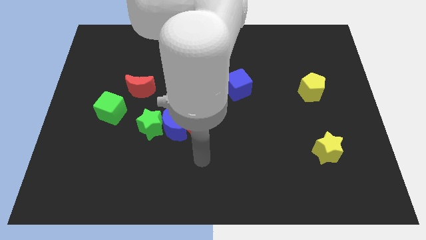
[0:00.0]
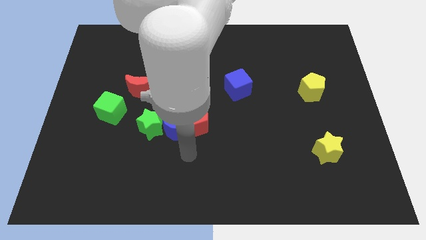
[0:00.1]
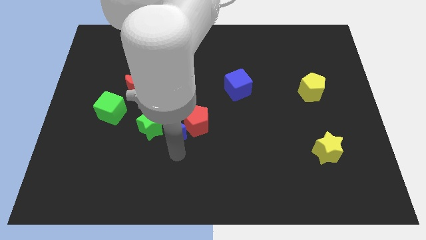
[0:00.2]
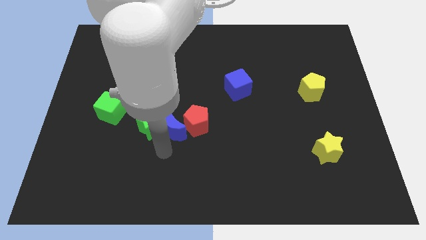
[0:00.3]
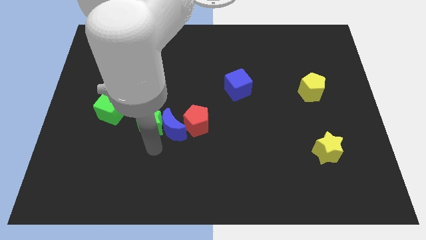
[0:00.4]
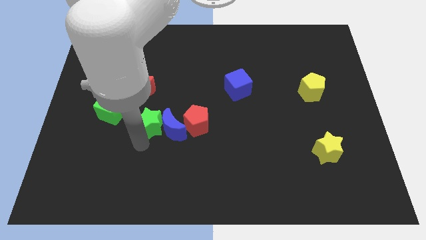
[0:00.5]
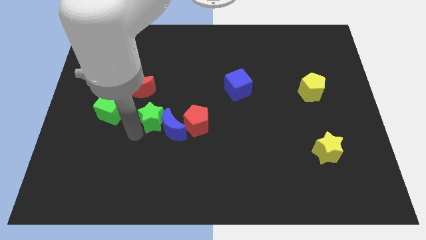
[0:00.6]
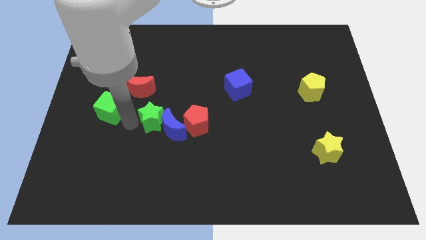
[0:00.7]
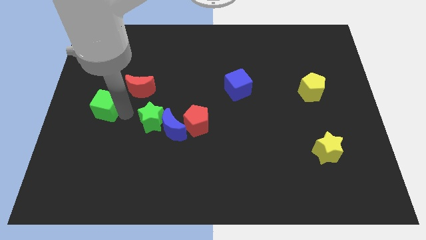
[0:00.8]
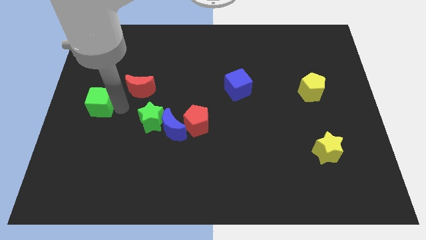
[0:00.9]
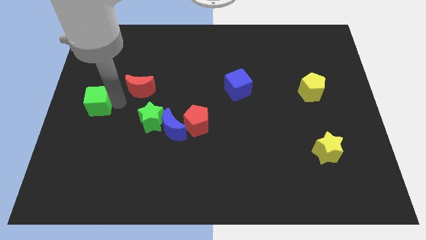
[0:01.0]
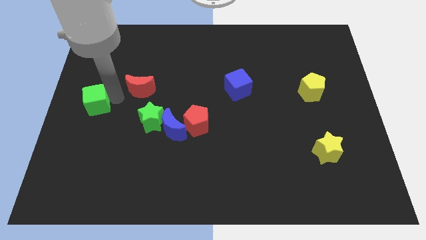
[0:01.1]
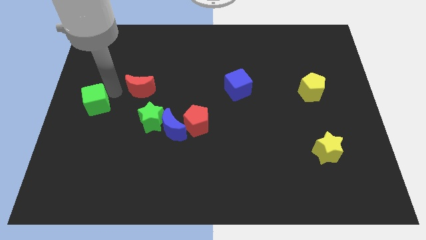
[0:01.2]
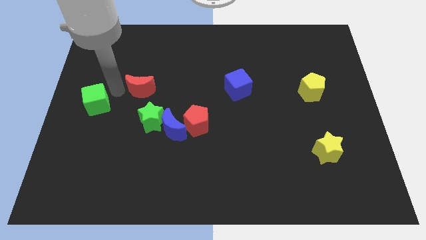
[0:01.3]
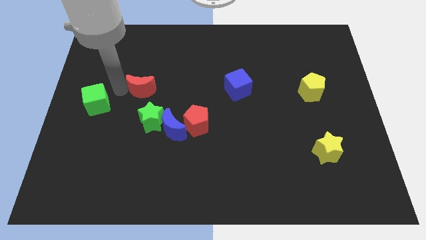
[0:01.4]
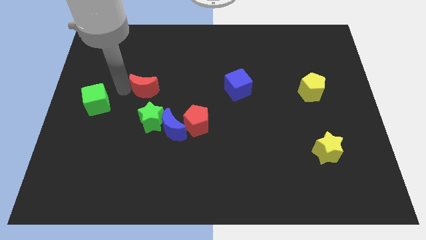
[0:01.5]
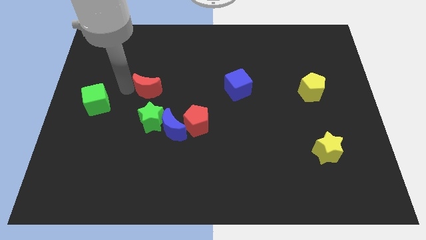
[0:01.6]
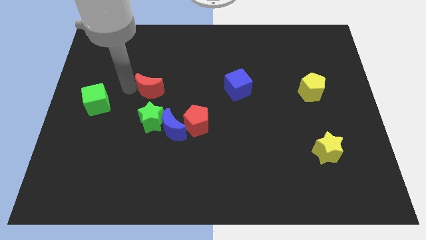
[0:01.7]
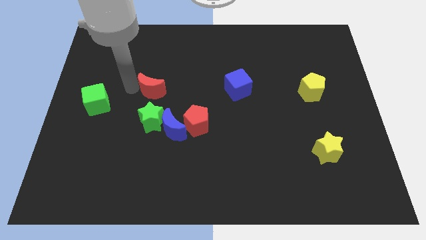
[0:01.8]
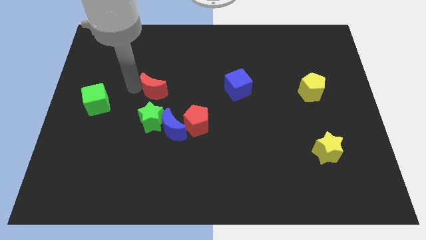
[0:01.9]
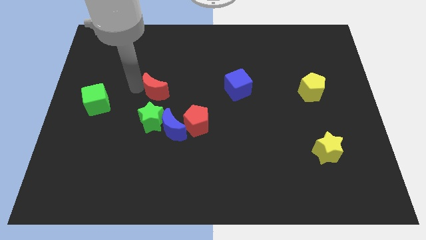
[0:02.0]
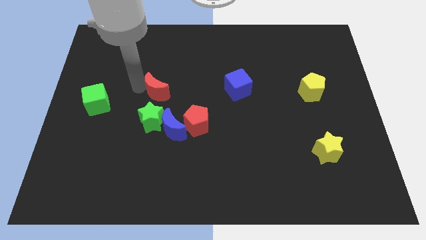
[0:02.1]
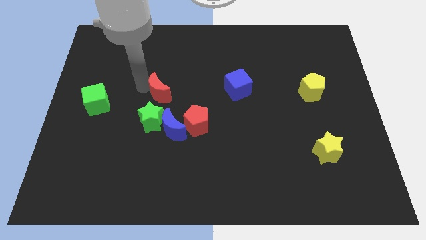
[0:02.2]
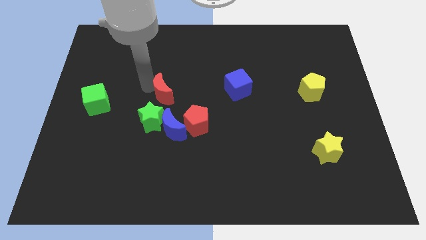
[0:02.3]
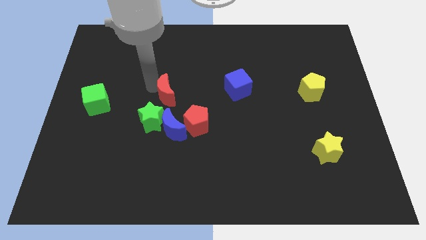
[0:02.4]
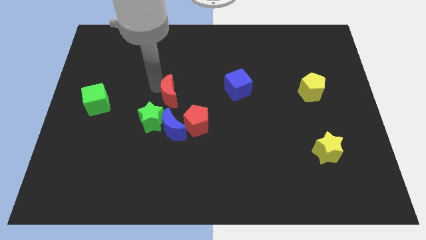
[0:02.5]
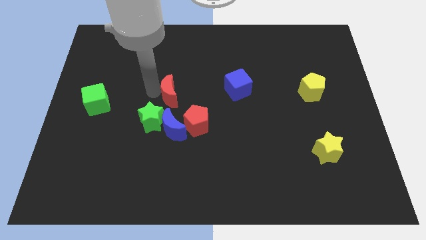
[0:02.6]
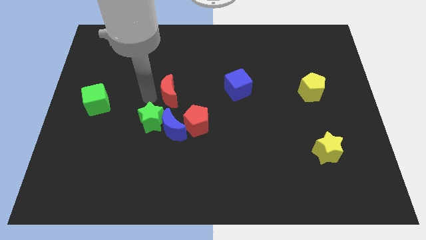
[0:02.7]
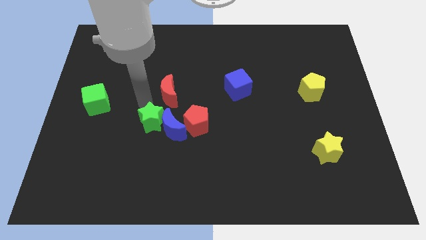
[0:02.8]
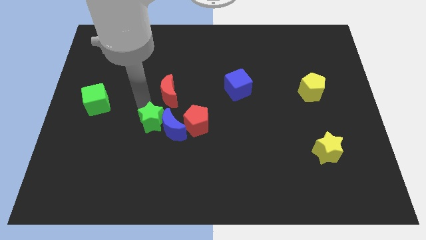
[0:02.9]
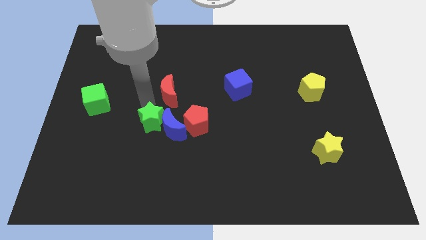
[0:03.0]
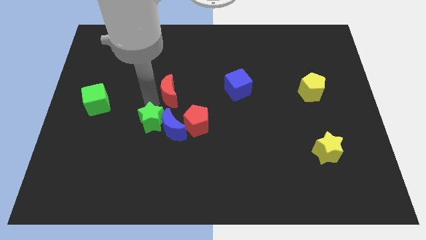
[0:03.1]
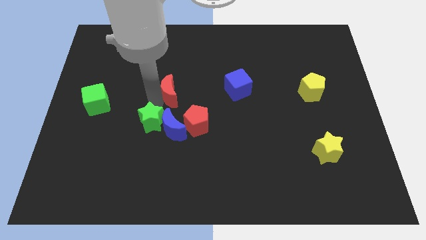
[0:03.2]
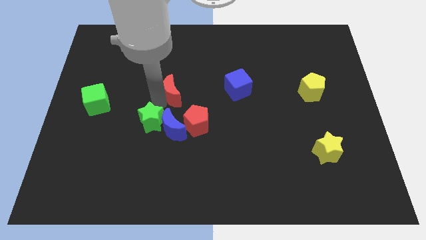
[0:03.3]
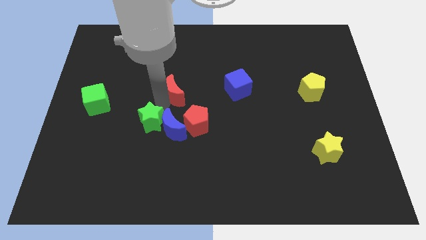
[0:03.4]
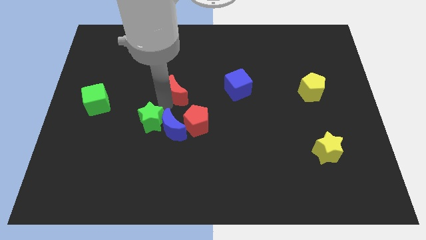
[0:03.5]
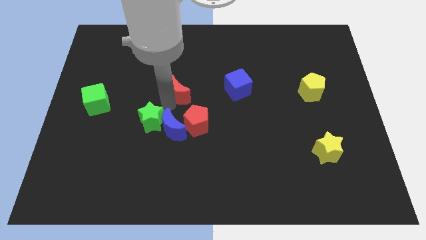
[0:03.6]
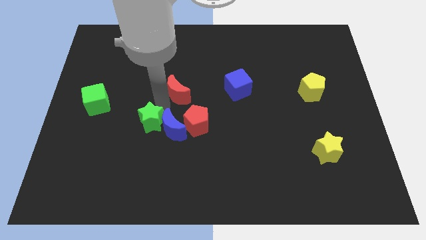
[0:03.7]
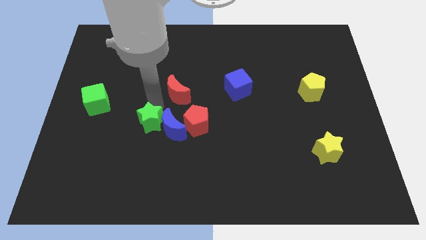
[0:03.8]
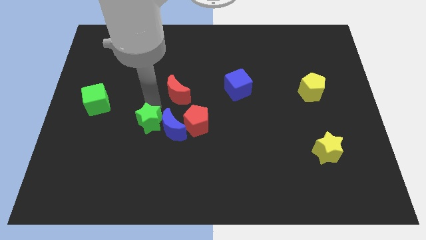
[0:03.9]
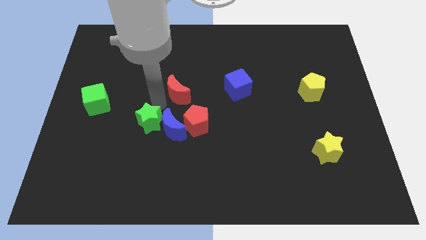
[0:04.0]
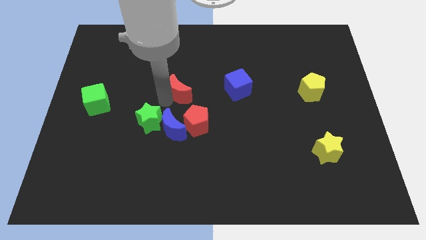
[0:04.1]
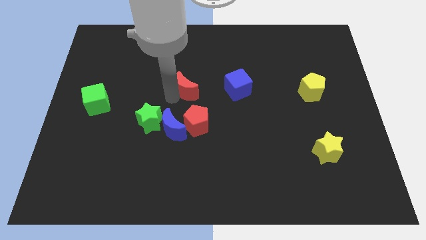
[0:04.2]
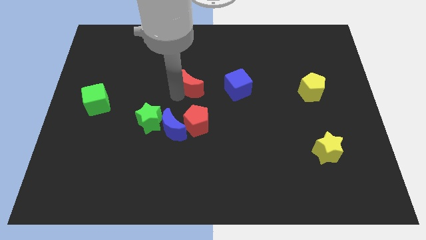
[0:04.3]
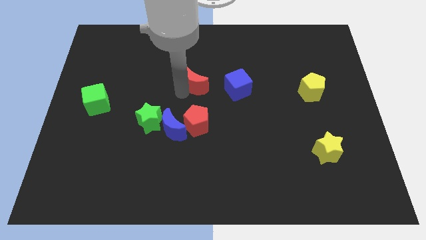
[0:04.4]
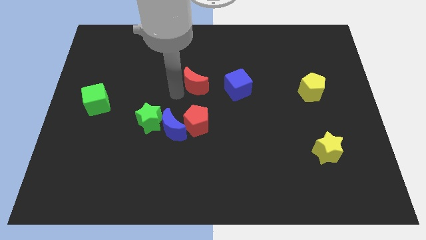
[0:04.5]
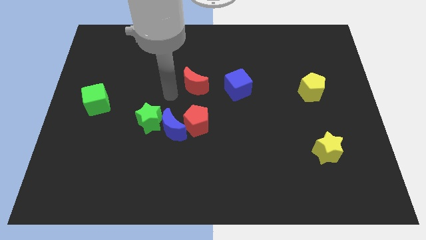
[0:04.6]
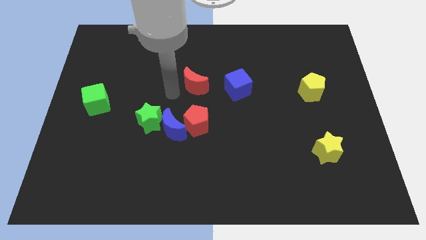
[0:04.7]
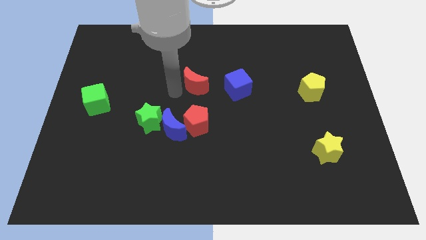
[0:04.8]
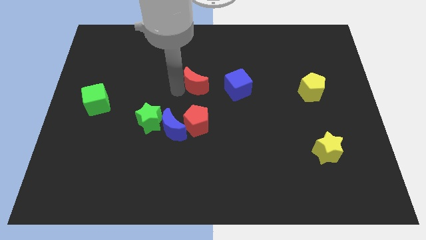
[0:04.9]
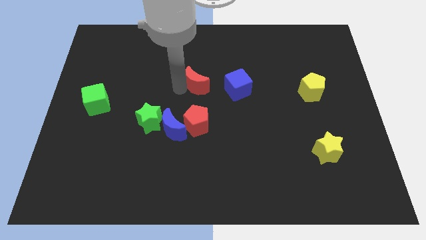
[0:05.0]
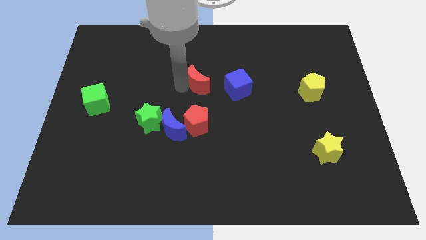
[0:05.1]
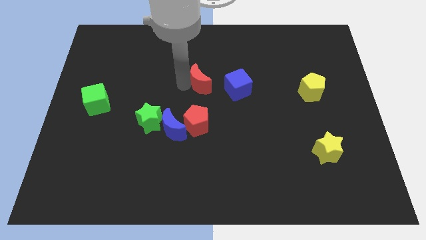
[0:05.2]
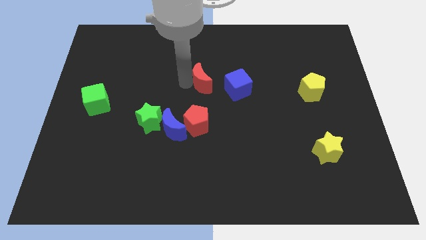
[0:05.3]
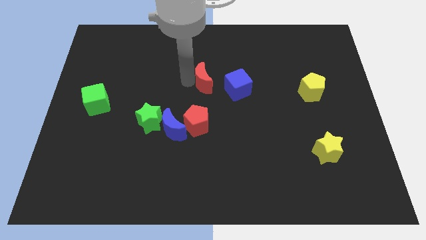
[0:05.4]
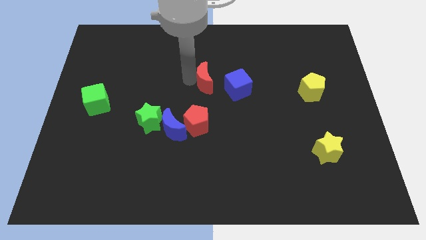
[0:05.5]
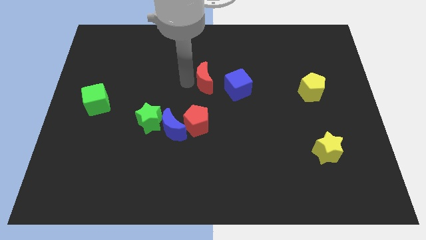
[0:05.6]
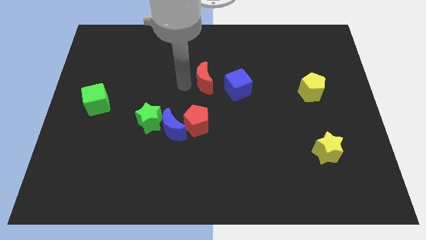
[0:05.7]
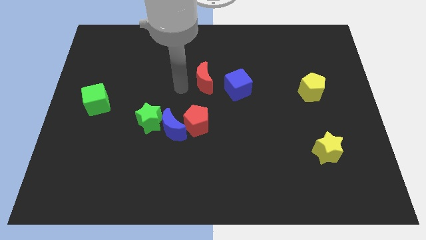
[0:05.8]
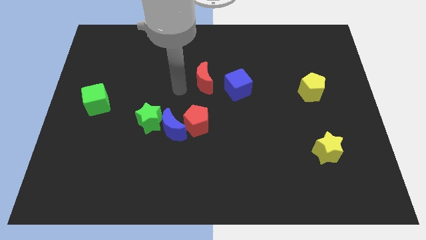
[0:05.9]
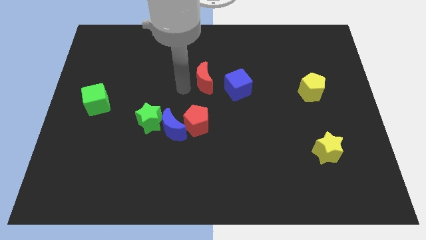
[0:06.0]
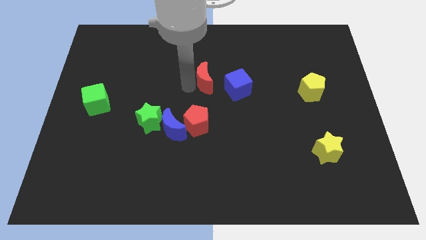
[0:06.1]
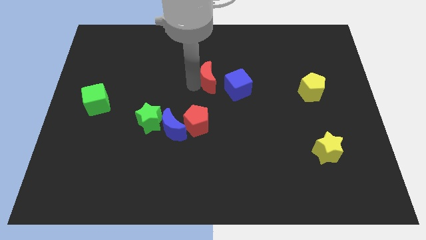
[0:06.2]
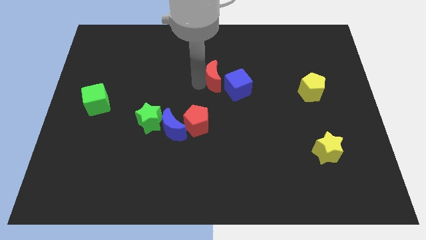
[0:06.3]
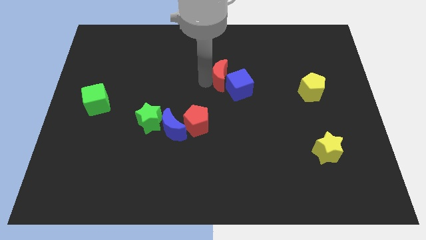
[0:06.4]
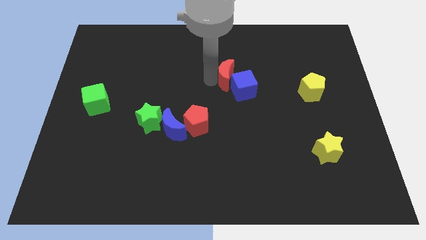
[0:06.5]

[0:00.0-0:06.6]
push the red moon right

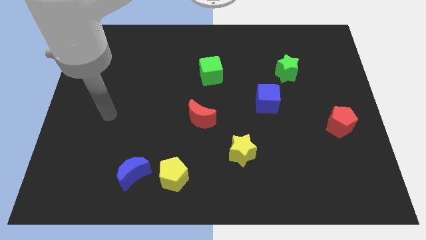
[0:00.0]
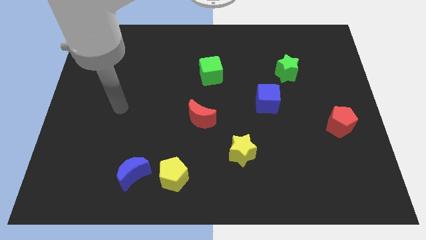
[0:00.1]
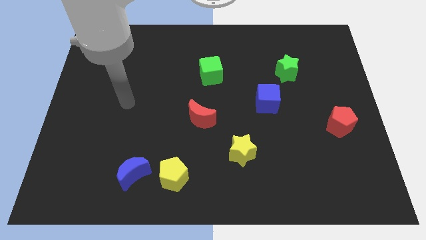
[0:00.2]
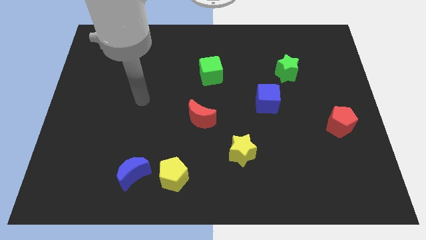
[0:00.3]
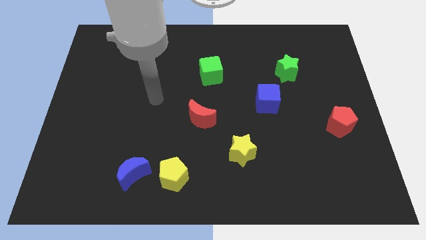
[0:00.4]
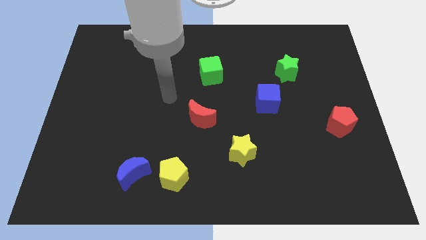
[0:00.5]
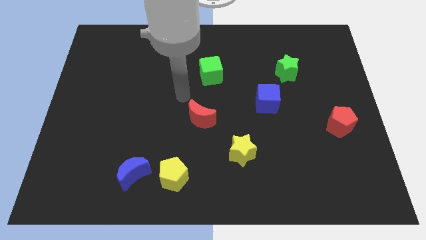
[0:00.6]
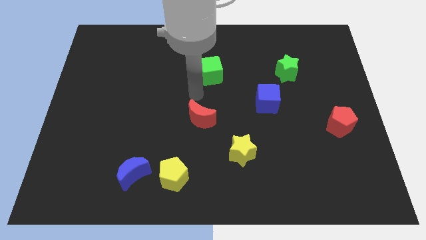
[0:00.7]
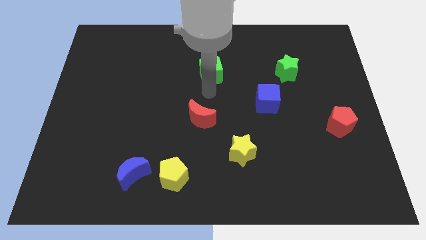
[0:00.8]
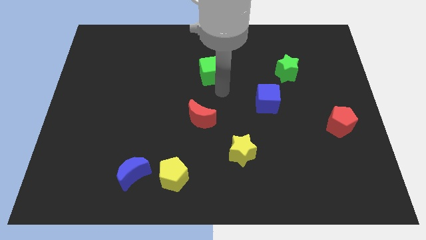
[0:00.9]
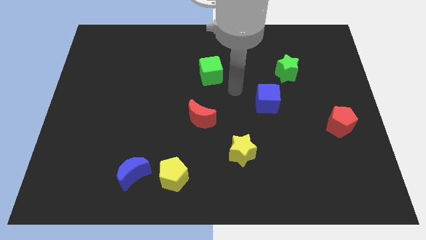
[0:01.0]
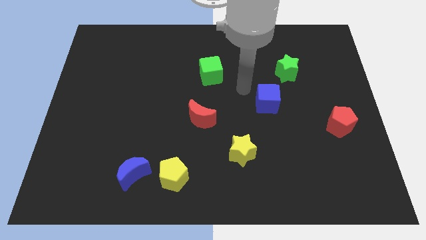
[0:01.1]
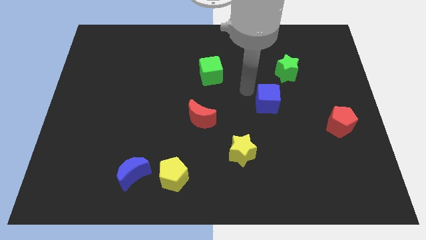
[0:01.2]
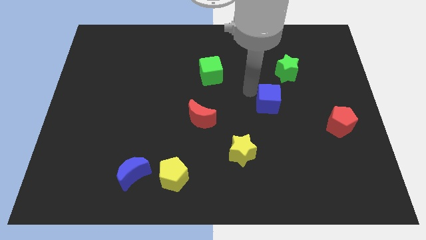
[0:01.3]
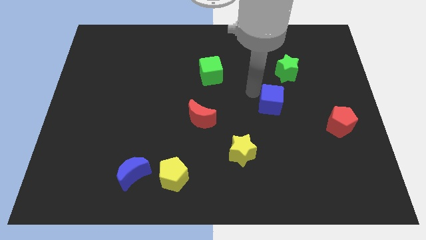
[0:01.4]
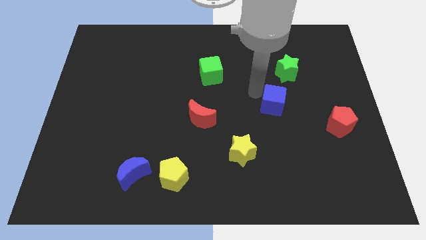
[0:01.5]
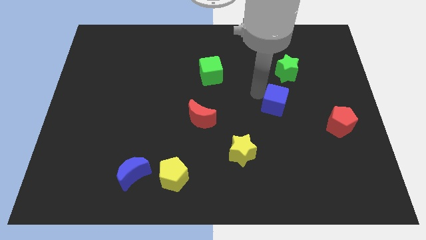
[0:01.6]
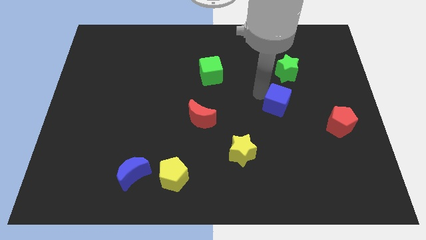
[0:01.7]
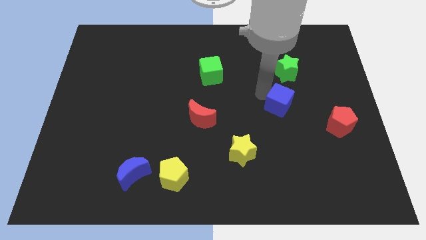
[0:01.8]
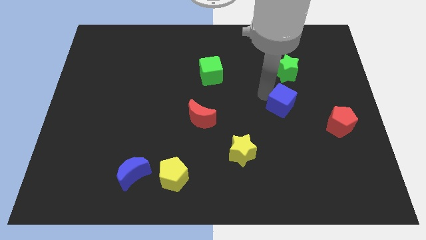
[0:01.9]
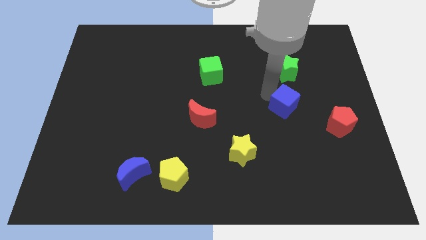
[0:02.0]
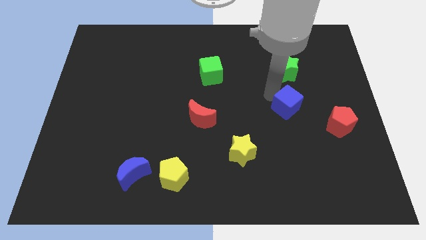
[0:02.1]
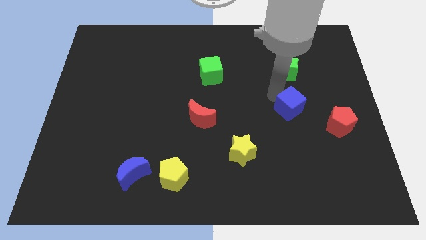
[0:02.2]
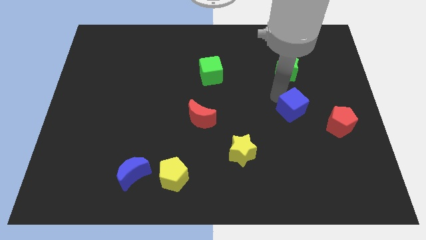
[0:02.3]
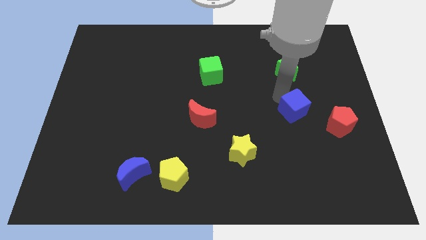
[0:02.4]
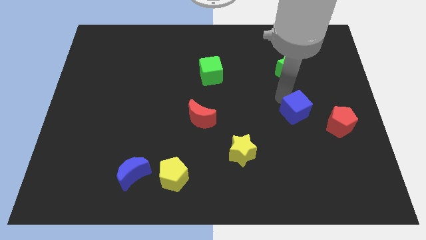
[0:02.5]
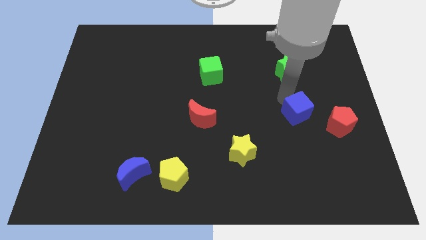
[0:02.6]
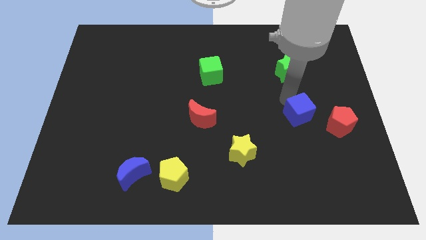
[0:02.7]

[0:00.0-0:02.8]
slightly push the blue cube downwards and then to the right
